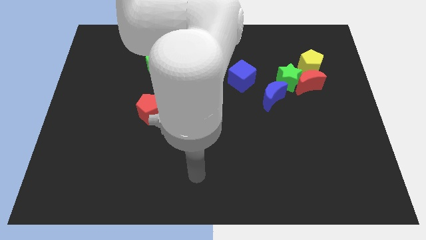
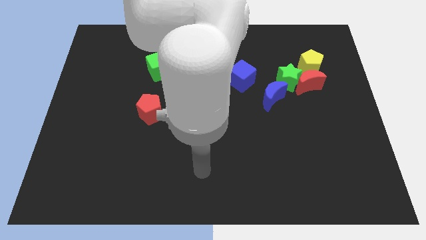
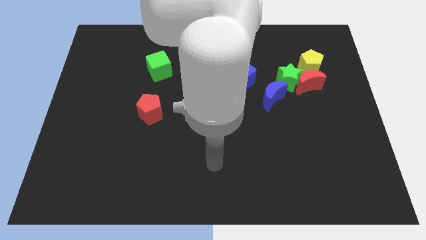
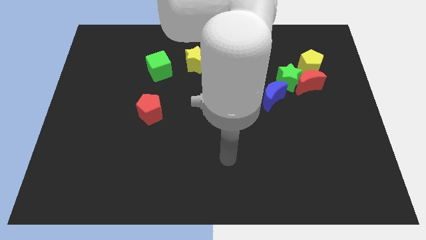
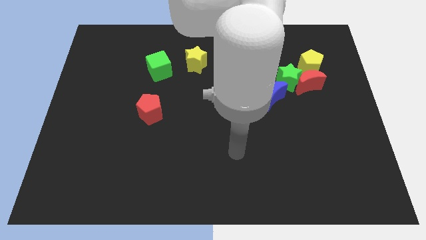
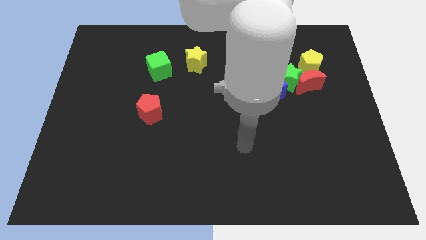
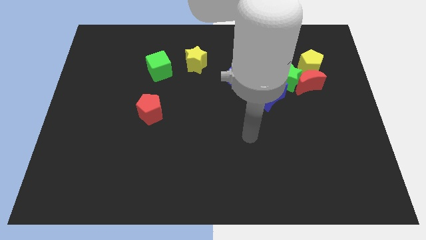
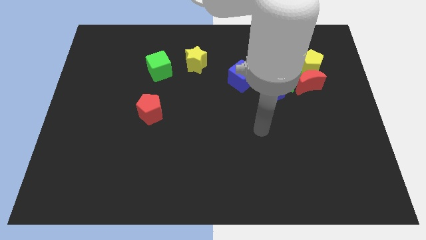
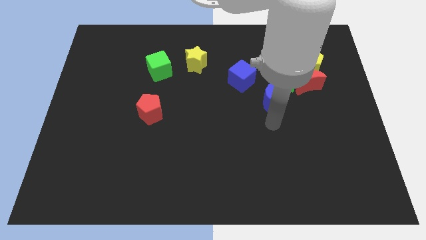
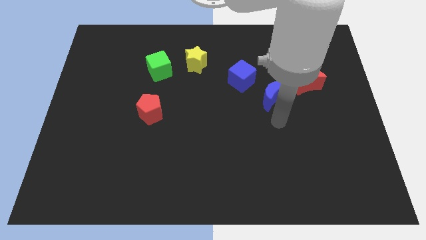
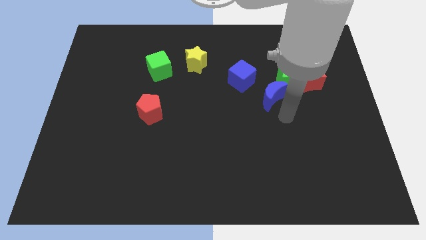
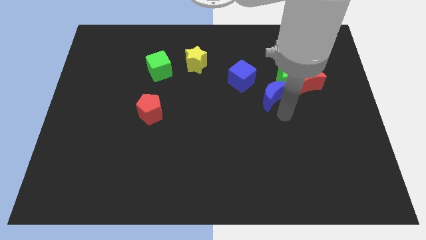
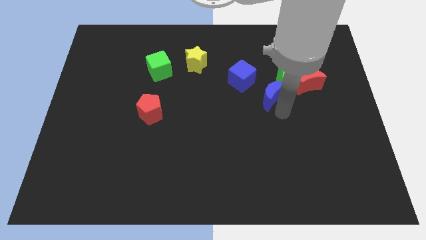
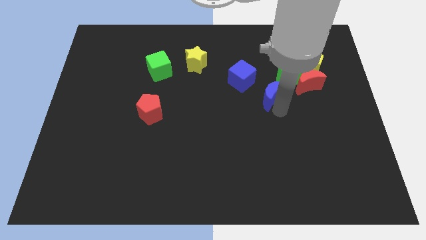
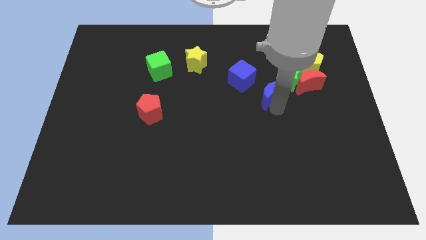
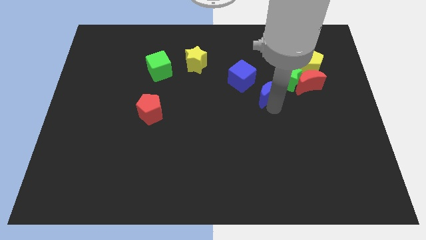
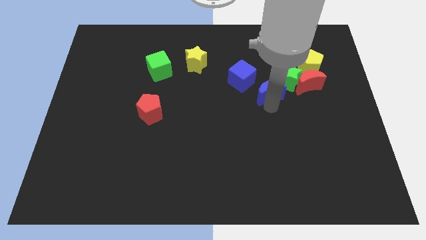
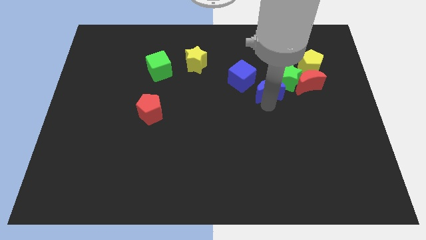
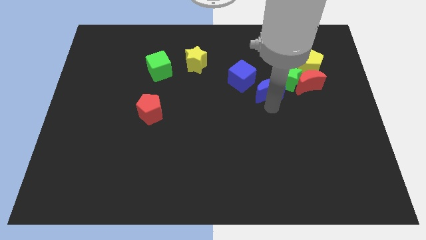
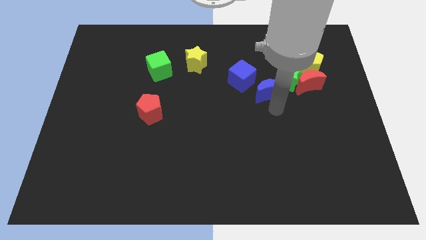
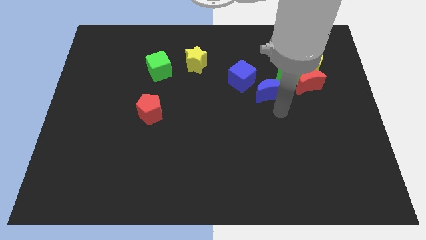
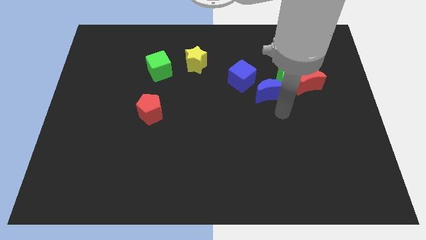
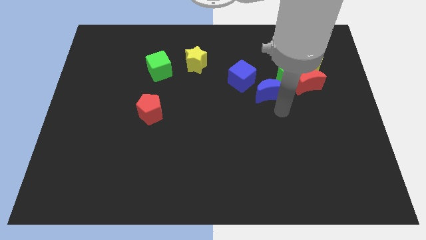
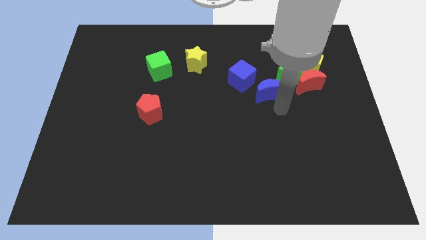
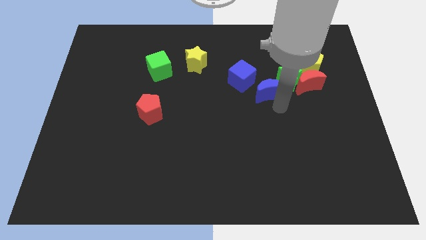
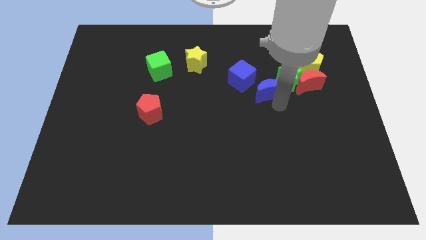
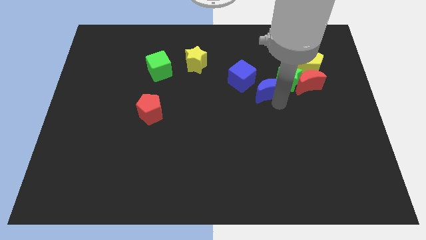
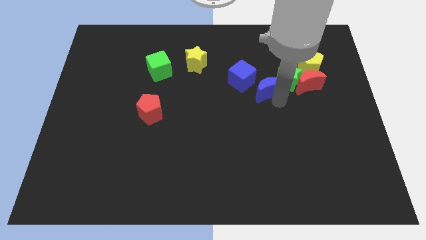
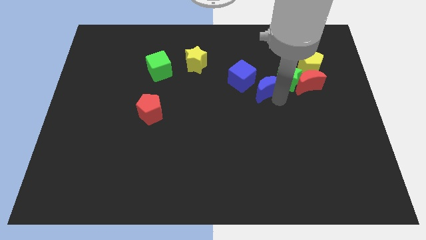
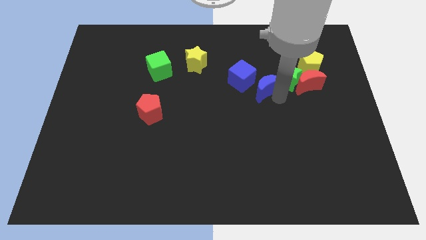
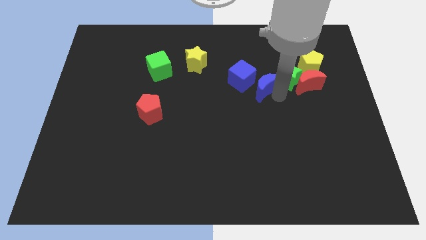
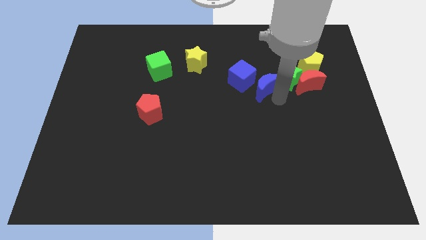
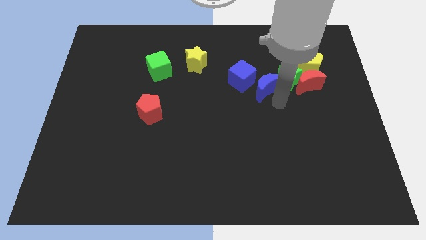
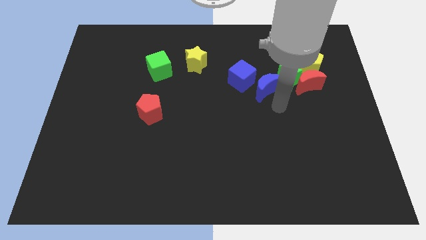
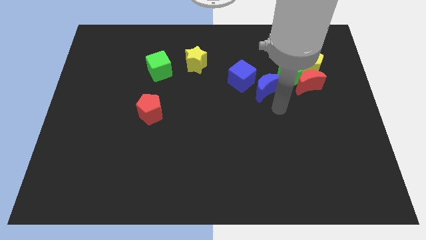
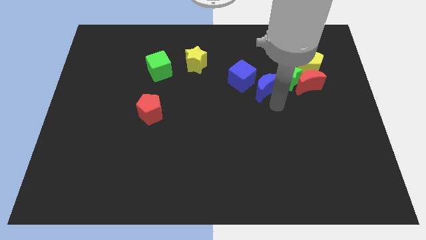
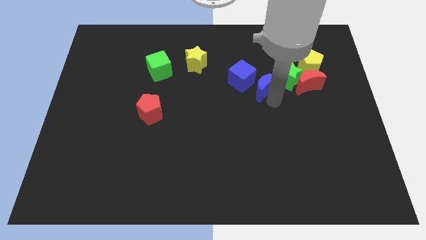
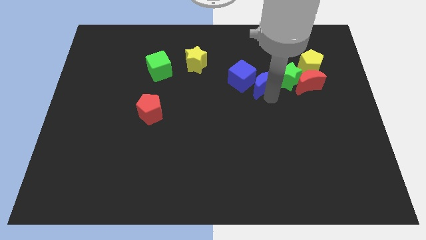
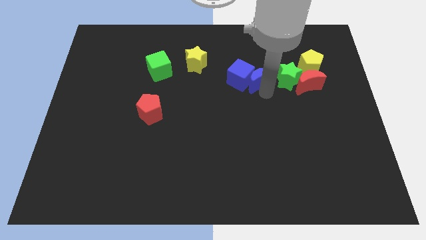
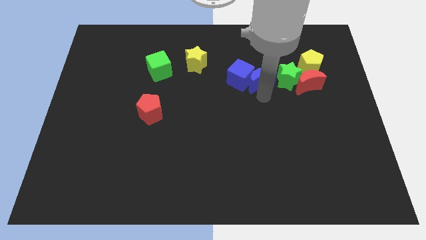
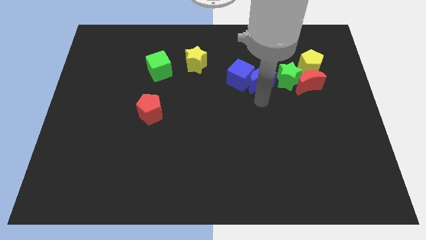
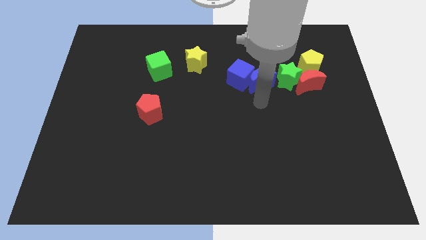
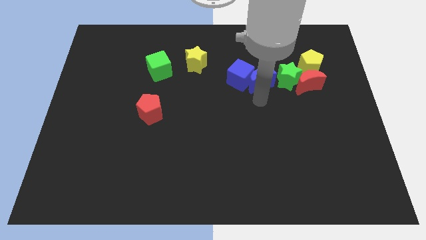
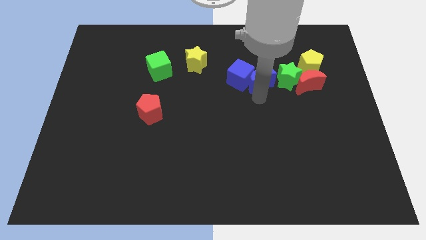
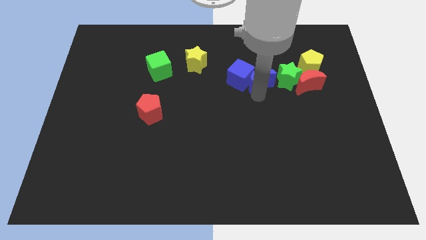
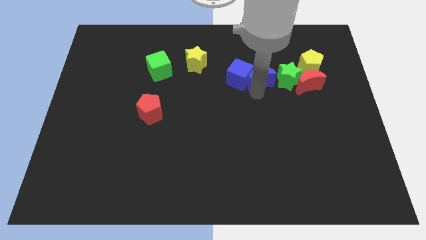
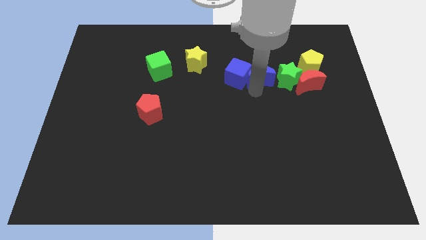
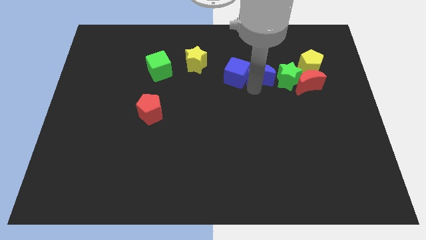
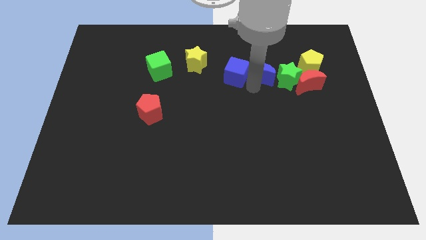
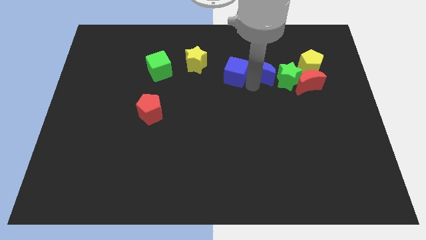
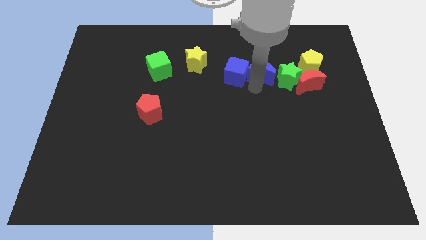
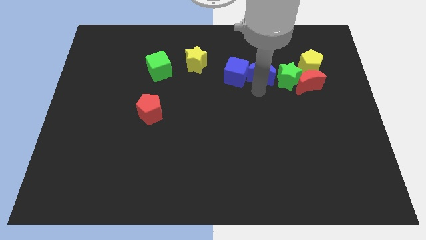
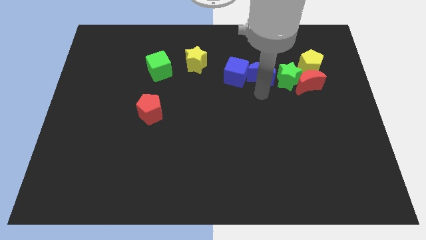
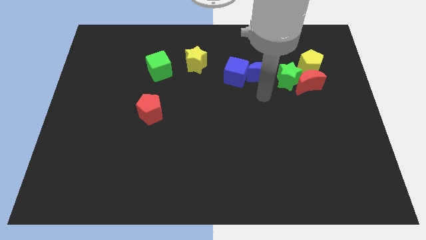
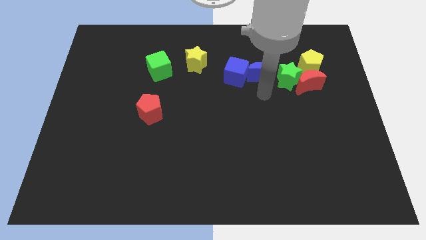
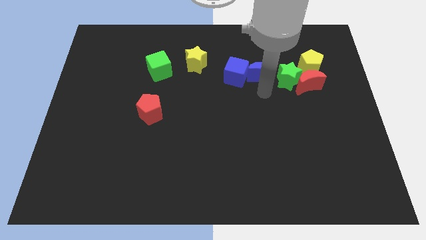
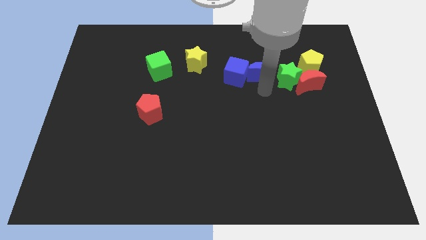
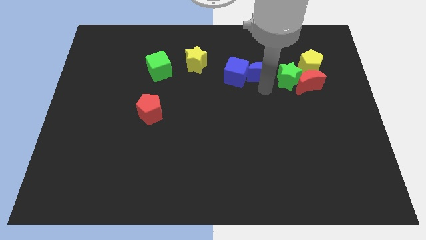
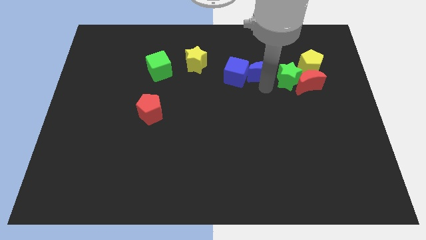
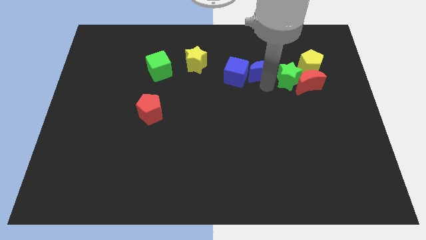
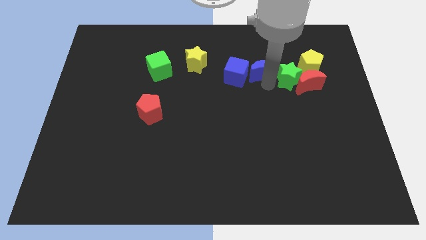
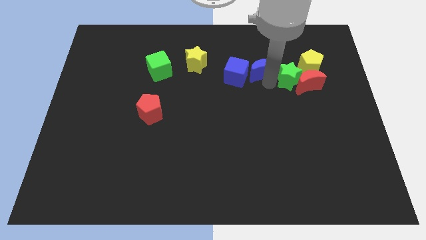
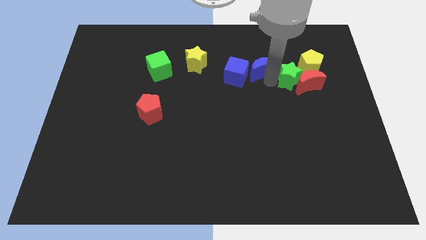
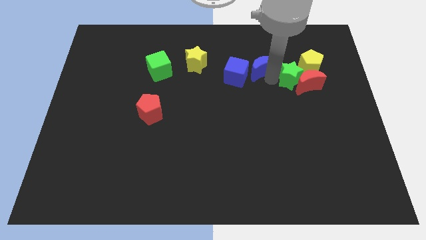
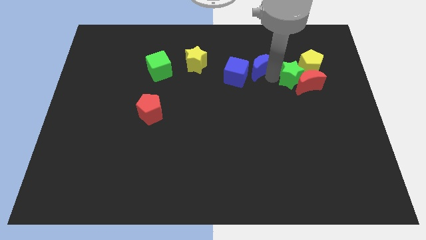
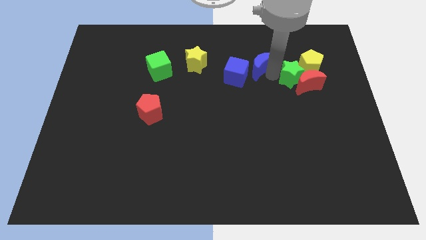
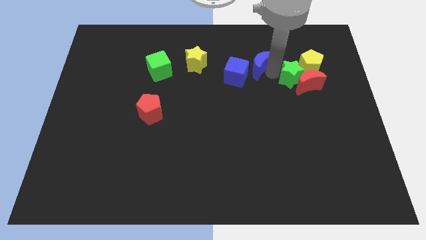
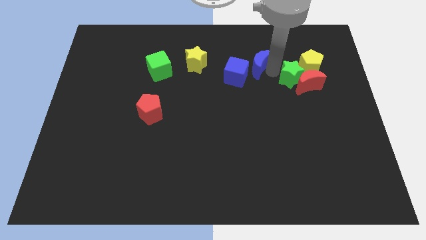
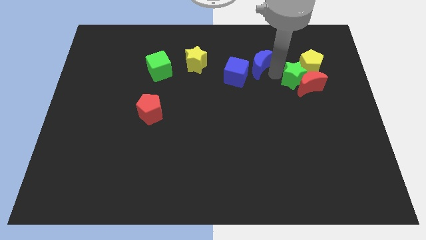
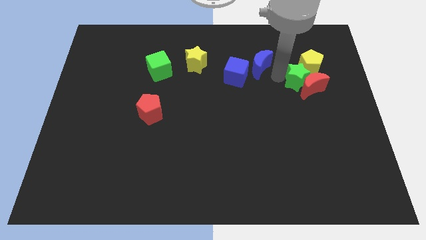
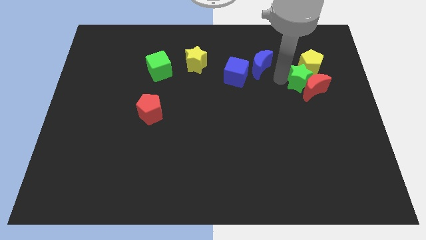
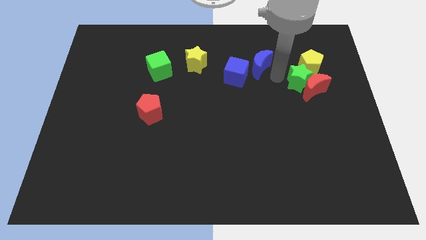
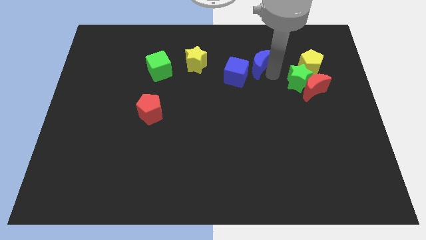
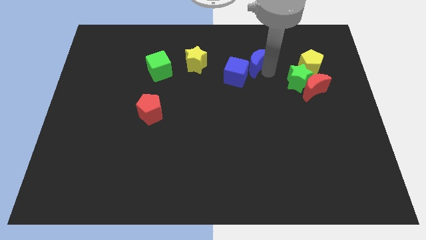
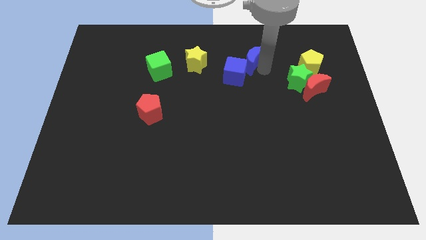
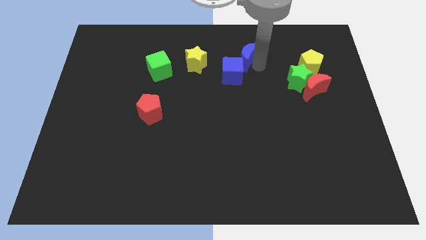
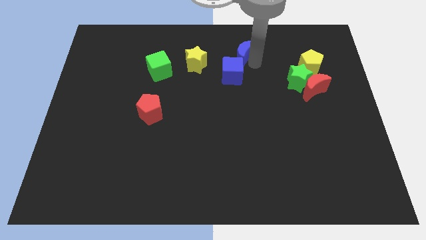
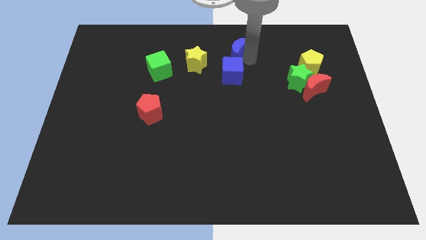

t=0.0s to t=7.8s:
put the blue moon to the top side
